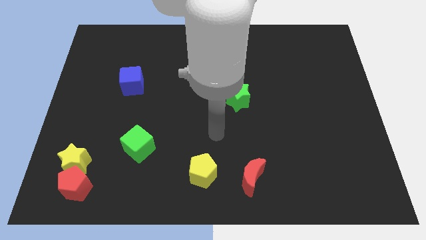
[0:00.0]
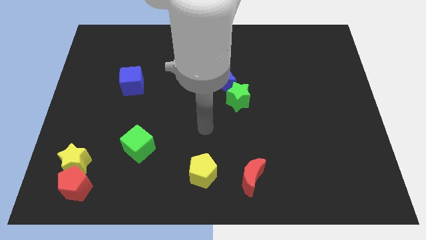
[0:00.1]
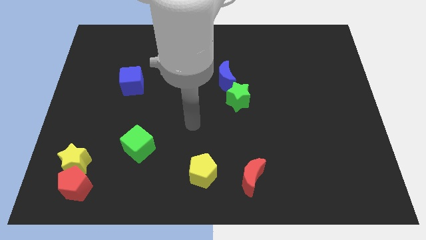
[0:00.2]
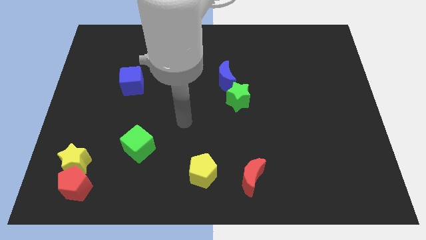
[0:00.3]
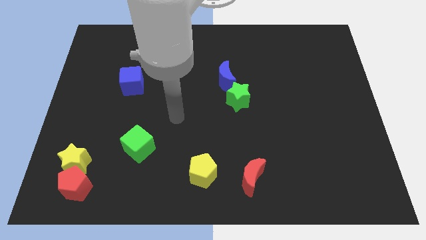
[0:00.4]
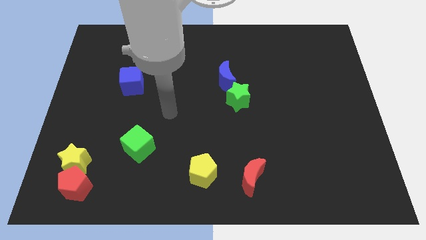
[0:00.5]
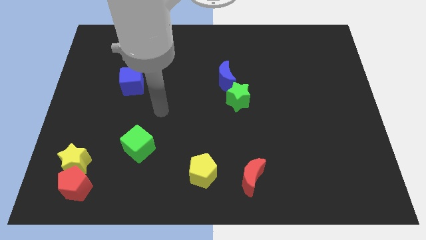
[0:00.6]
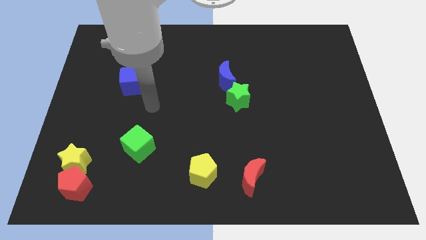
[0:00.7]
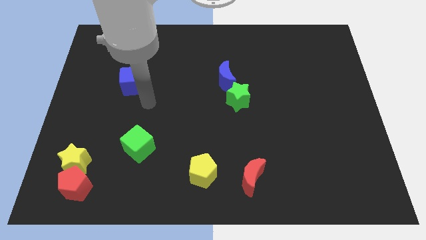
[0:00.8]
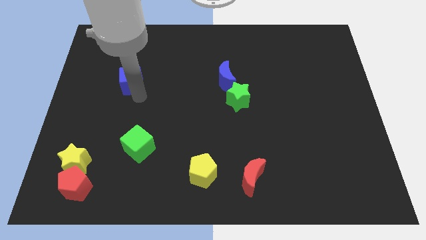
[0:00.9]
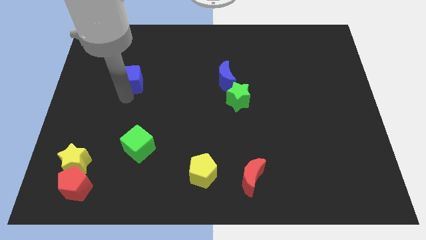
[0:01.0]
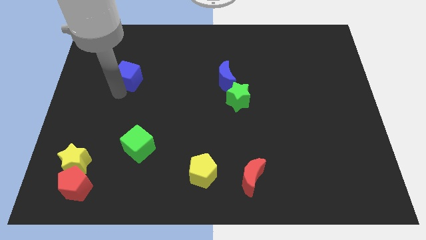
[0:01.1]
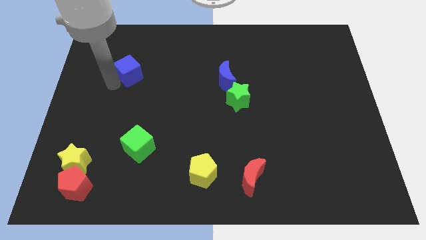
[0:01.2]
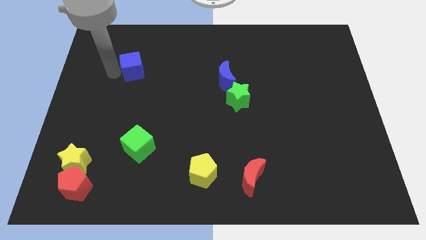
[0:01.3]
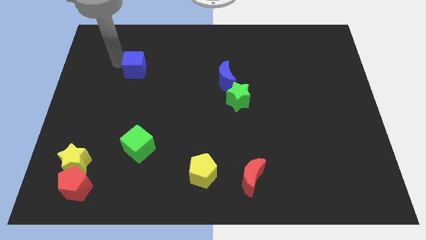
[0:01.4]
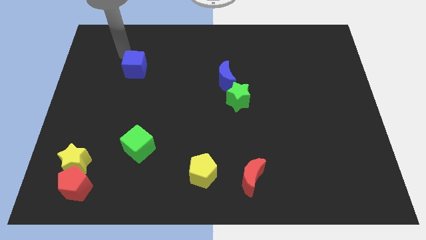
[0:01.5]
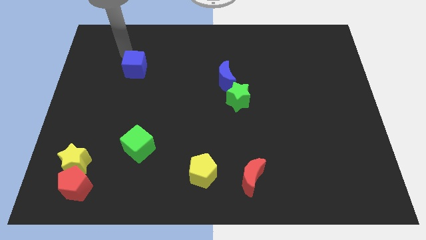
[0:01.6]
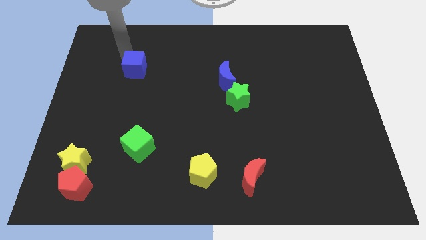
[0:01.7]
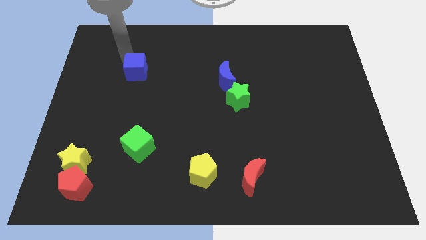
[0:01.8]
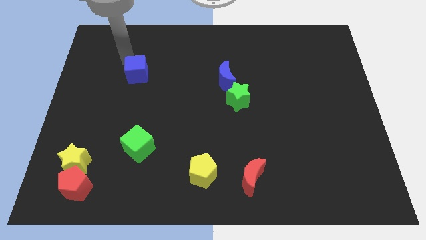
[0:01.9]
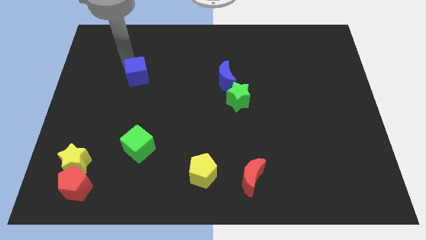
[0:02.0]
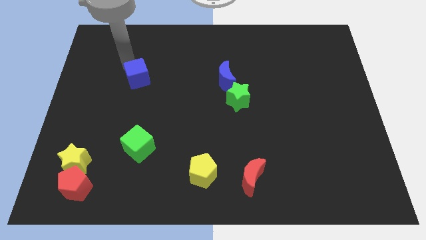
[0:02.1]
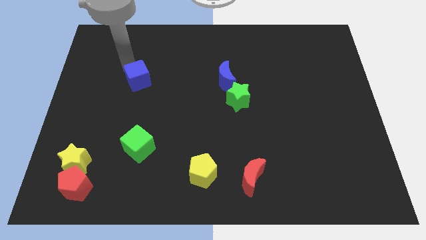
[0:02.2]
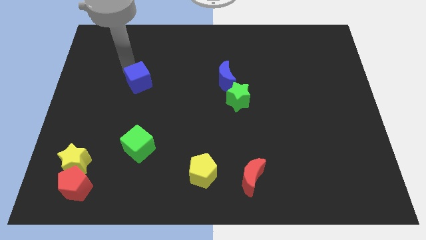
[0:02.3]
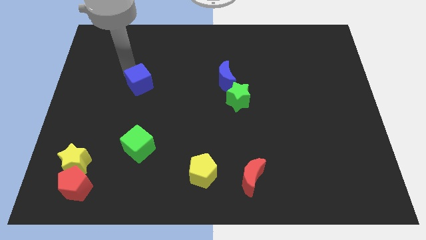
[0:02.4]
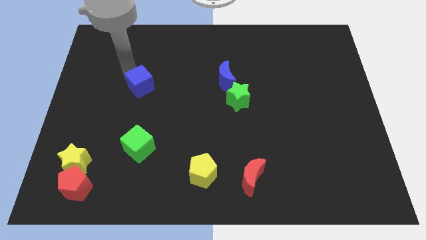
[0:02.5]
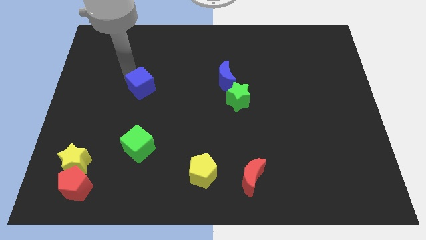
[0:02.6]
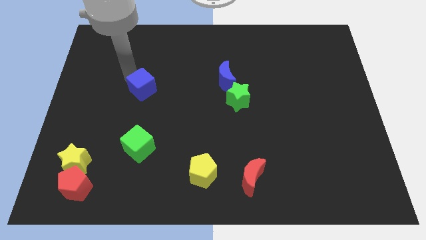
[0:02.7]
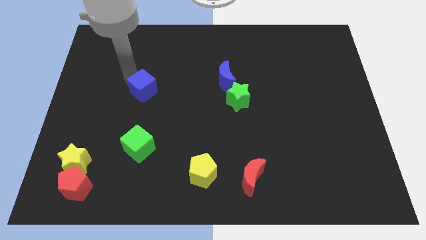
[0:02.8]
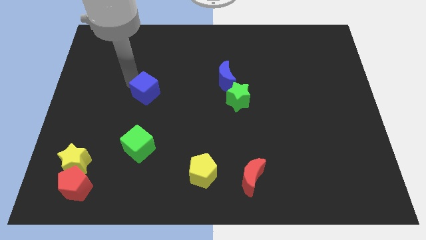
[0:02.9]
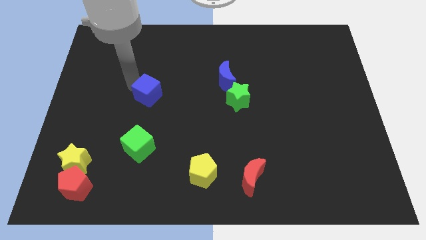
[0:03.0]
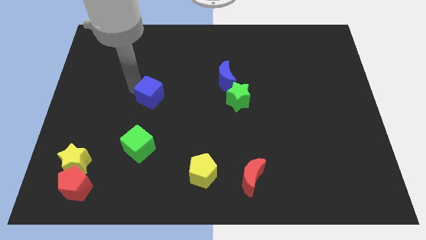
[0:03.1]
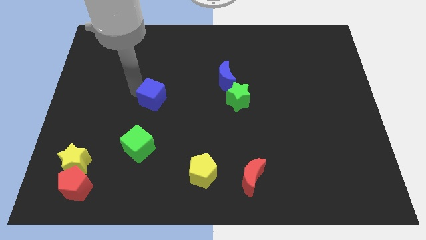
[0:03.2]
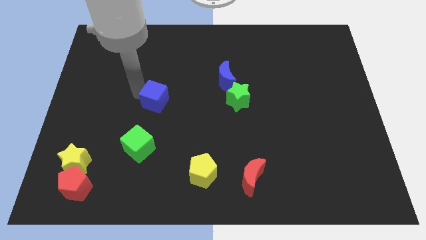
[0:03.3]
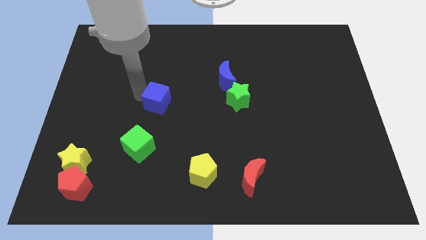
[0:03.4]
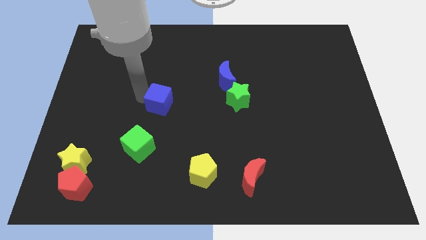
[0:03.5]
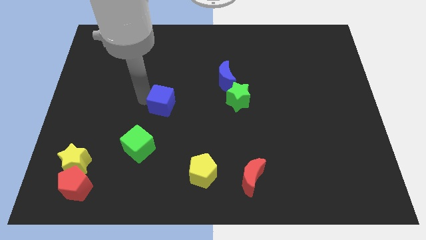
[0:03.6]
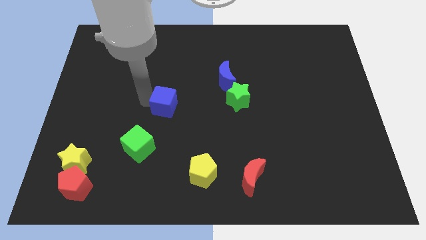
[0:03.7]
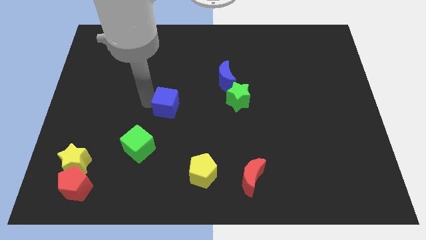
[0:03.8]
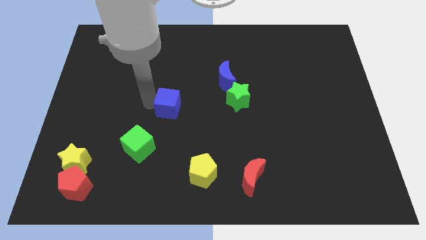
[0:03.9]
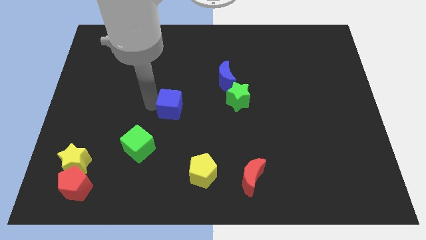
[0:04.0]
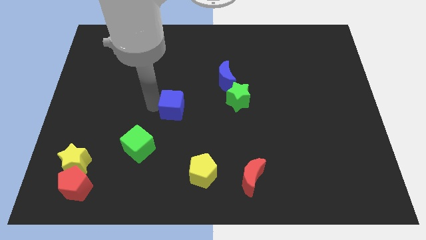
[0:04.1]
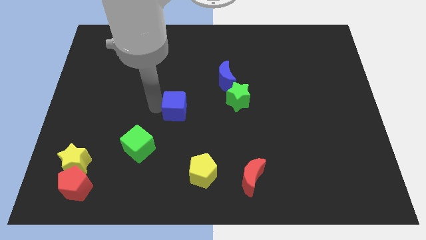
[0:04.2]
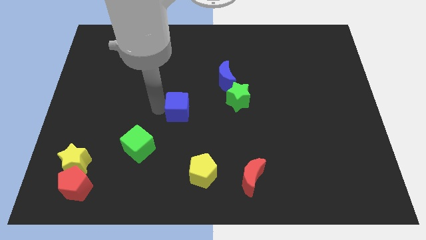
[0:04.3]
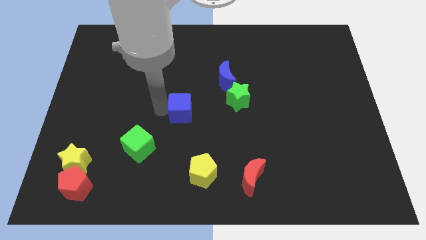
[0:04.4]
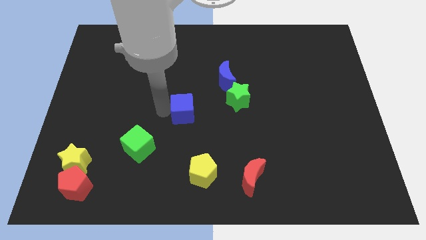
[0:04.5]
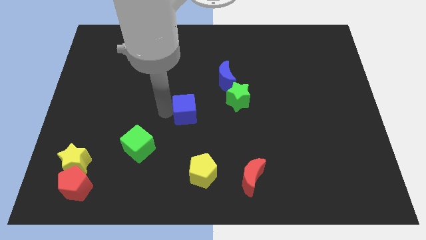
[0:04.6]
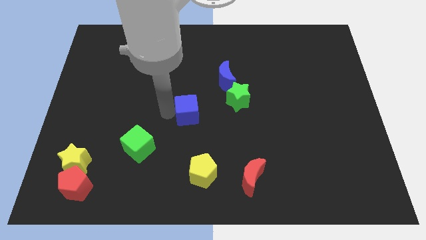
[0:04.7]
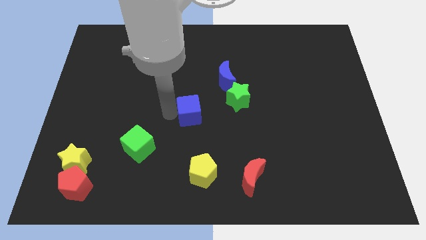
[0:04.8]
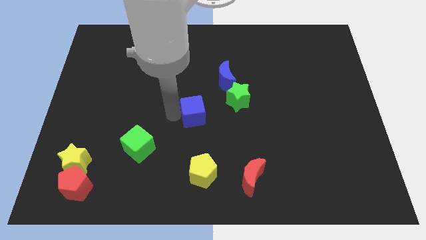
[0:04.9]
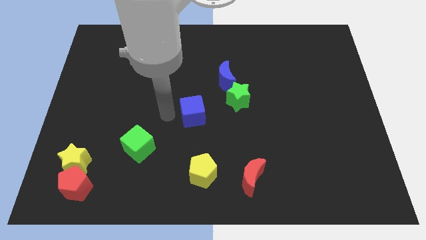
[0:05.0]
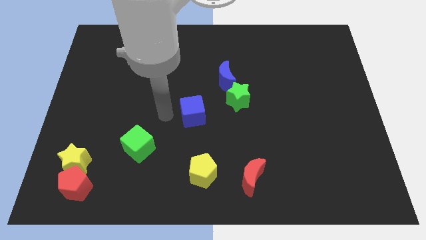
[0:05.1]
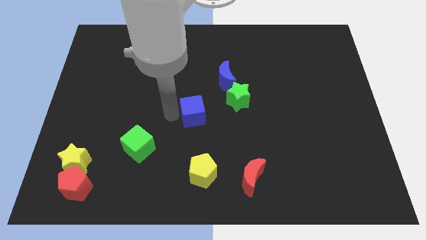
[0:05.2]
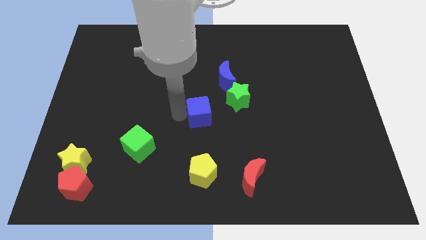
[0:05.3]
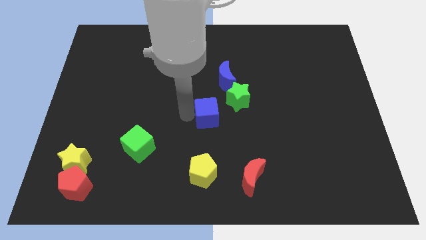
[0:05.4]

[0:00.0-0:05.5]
put the blue cube to the bottom of the blue moon

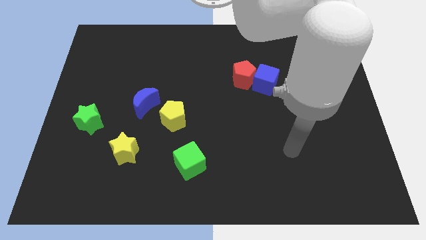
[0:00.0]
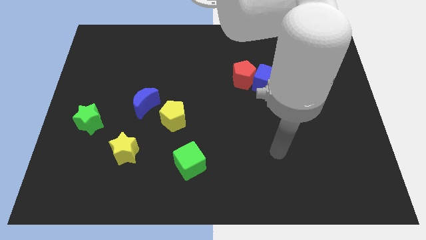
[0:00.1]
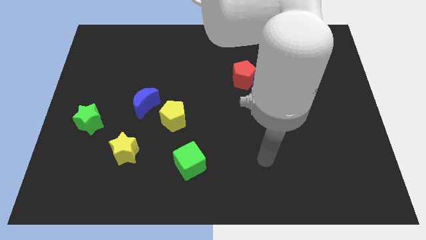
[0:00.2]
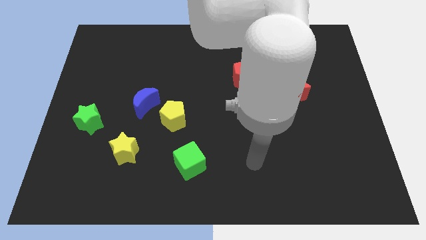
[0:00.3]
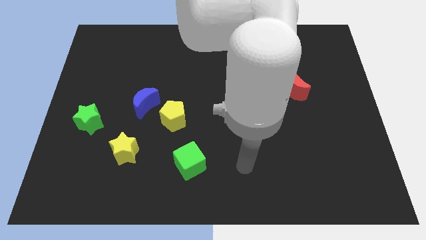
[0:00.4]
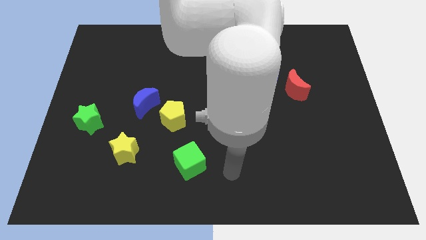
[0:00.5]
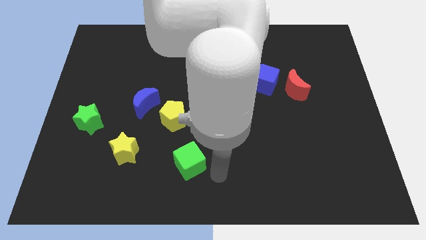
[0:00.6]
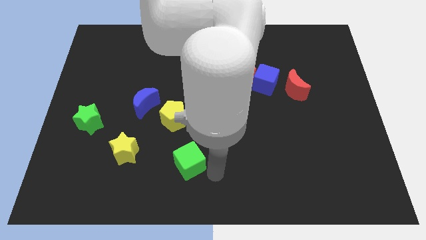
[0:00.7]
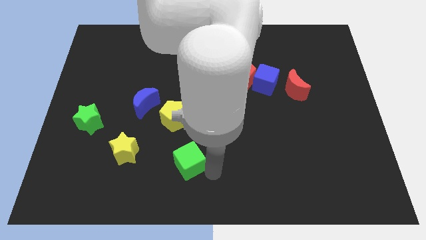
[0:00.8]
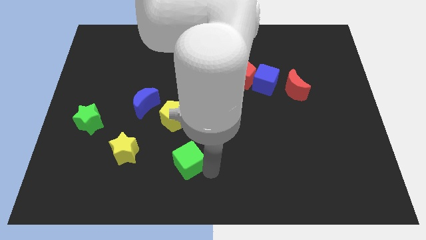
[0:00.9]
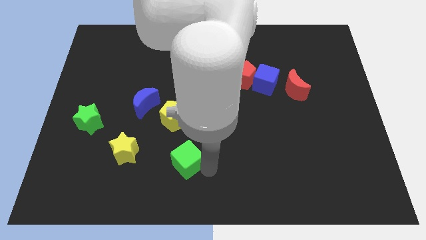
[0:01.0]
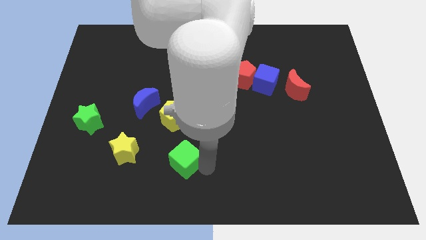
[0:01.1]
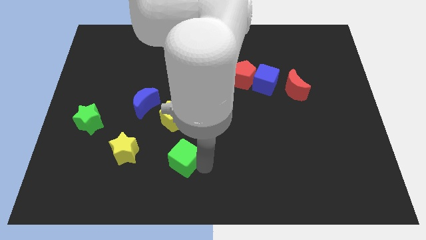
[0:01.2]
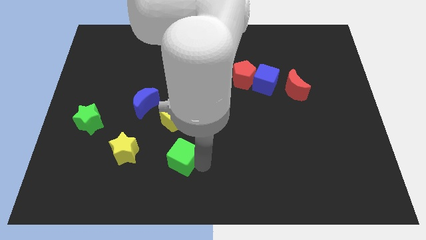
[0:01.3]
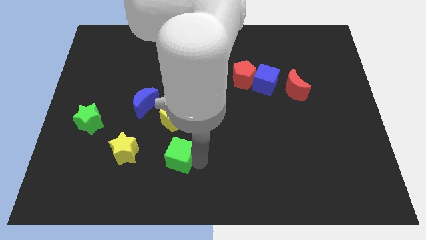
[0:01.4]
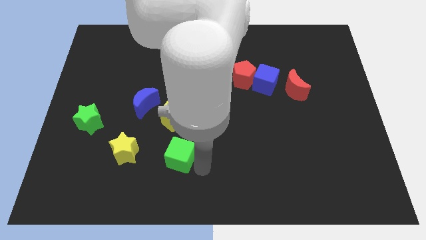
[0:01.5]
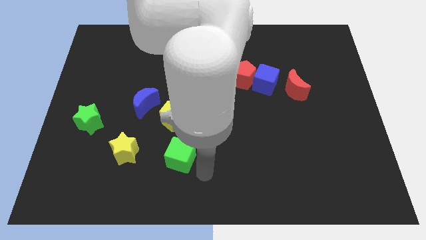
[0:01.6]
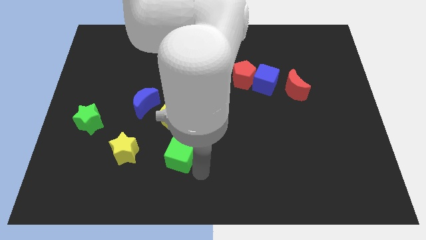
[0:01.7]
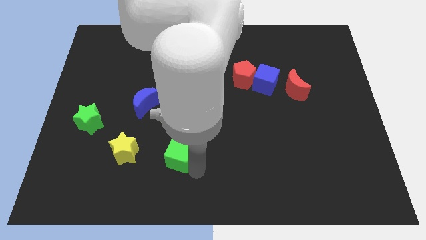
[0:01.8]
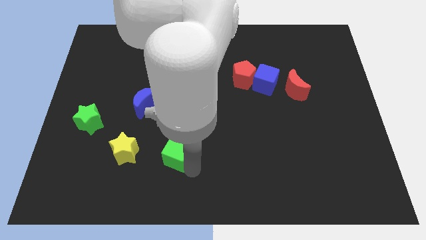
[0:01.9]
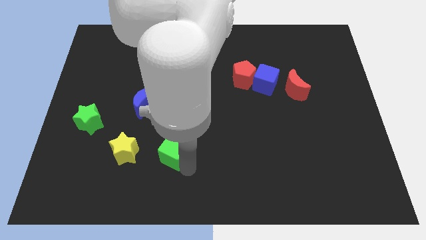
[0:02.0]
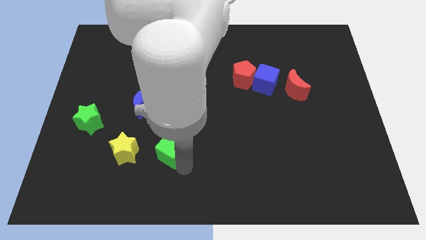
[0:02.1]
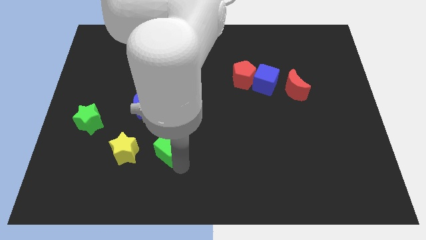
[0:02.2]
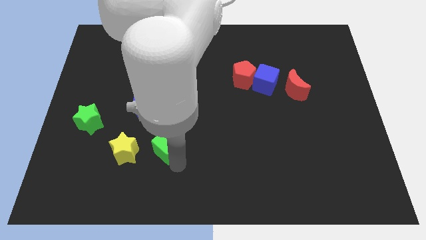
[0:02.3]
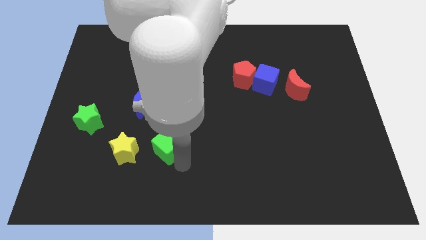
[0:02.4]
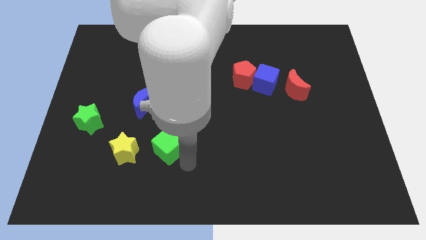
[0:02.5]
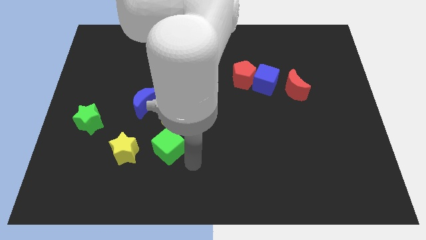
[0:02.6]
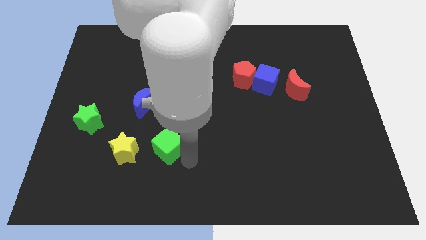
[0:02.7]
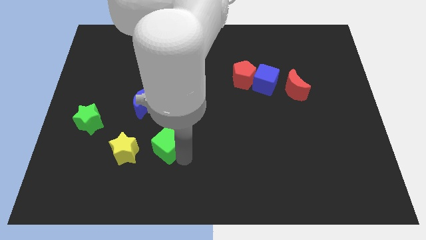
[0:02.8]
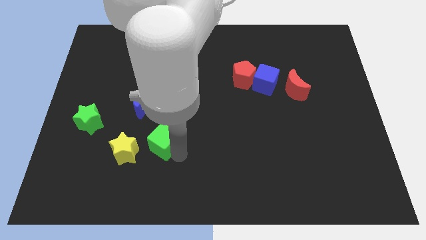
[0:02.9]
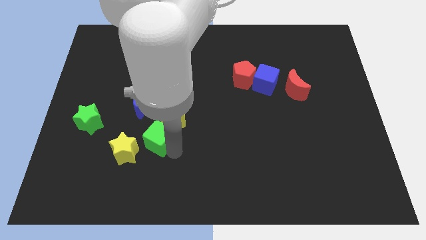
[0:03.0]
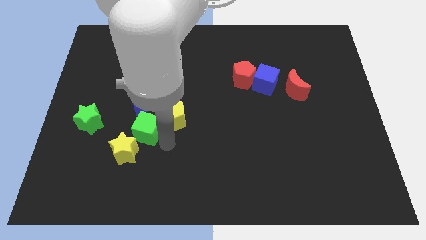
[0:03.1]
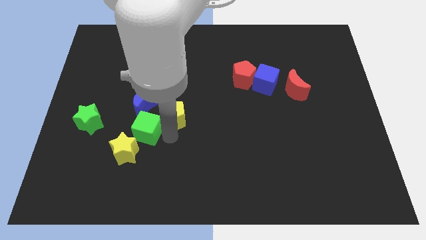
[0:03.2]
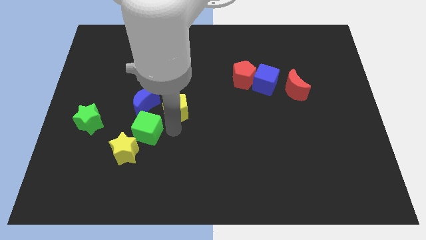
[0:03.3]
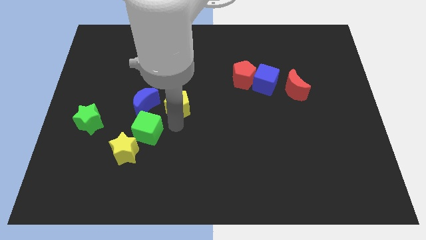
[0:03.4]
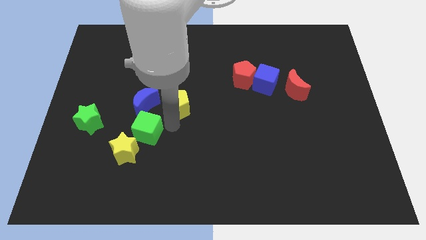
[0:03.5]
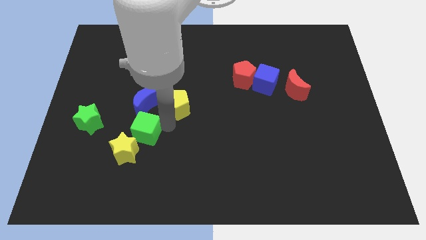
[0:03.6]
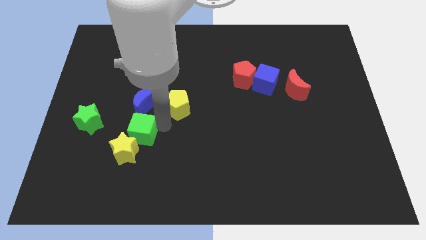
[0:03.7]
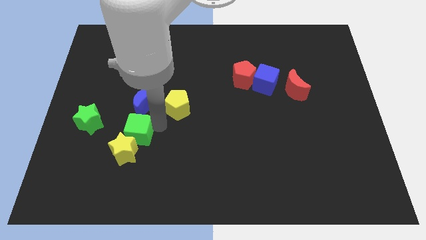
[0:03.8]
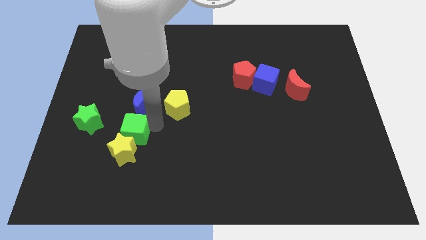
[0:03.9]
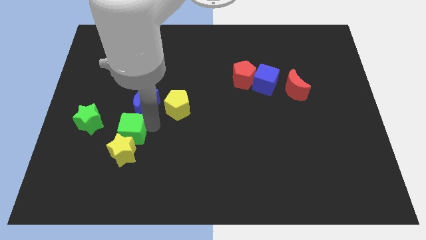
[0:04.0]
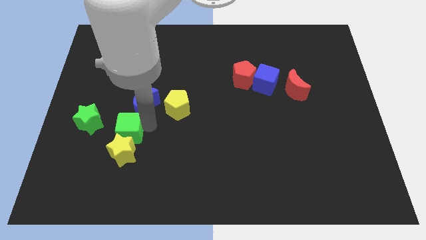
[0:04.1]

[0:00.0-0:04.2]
move the green cube to the bottom right of the green star
